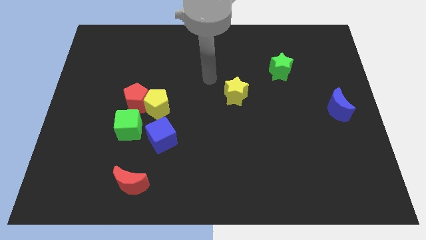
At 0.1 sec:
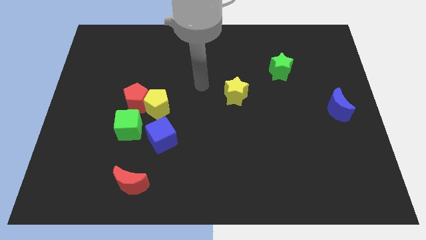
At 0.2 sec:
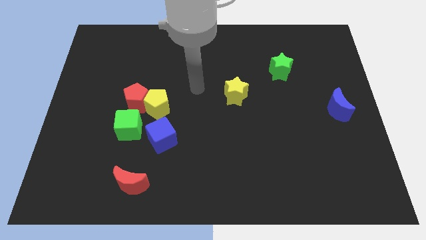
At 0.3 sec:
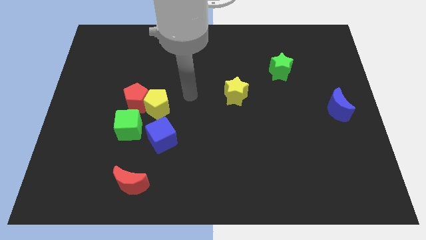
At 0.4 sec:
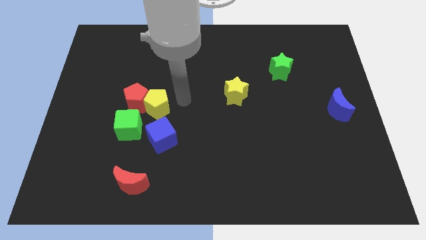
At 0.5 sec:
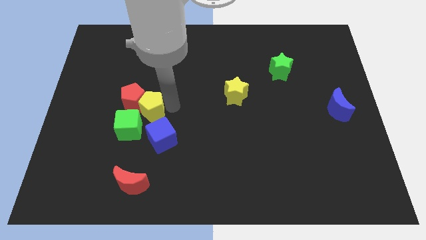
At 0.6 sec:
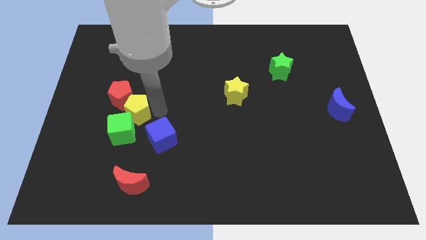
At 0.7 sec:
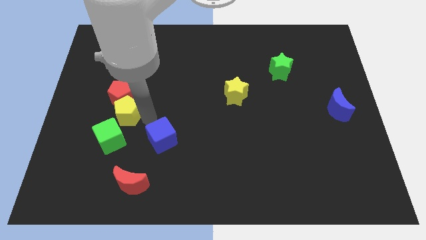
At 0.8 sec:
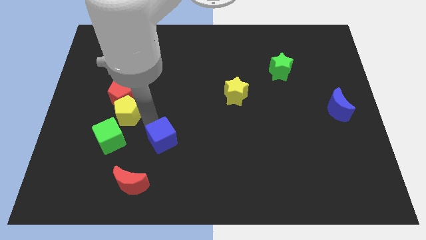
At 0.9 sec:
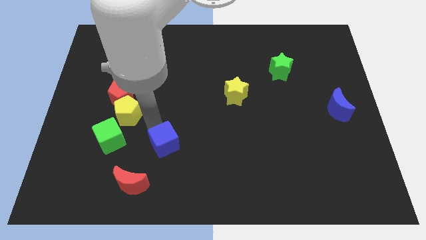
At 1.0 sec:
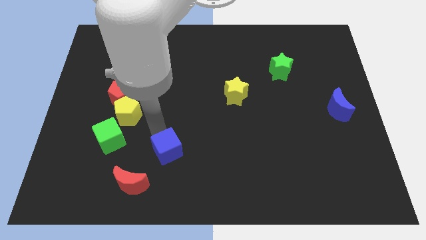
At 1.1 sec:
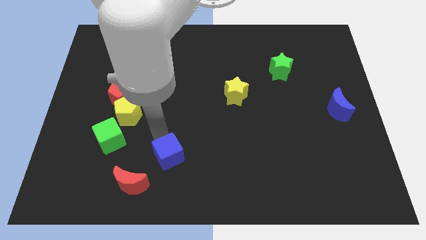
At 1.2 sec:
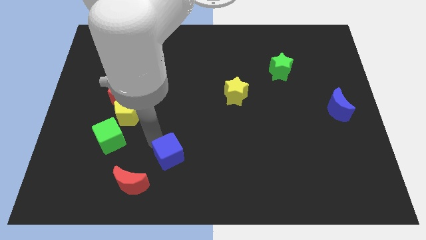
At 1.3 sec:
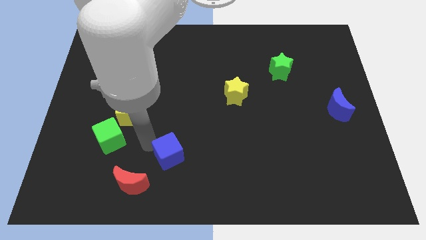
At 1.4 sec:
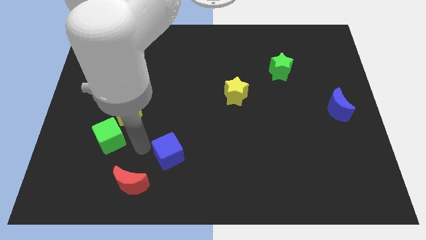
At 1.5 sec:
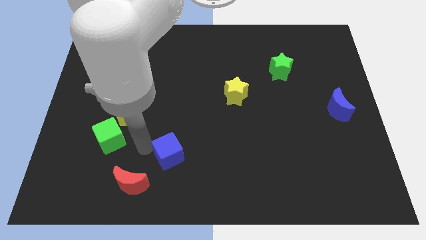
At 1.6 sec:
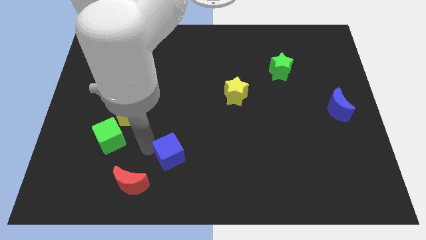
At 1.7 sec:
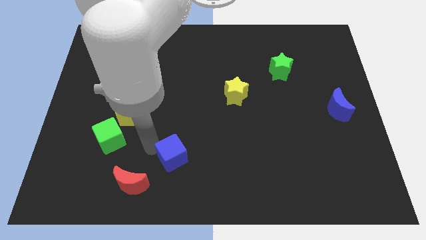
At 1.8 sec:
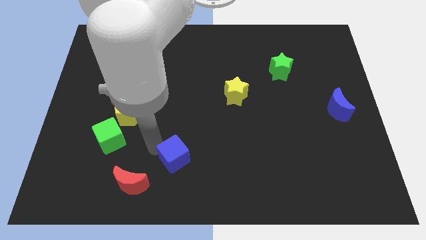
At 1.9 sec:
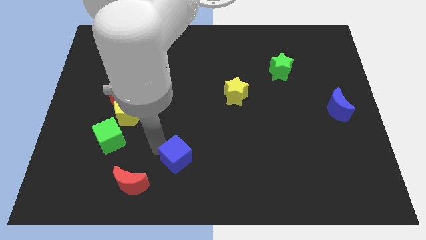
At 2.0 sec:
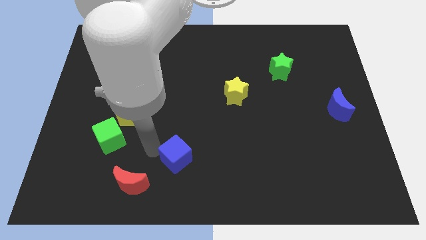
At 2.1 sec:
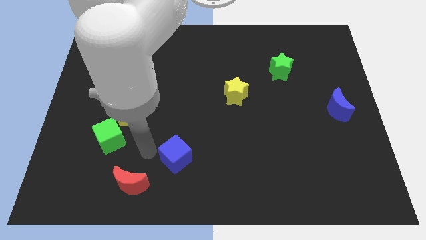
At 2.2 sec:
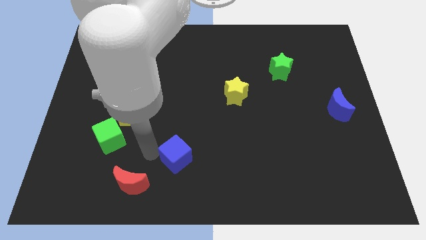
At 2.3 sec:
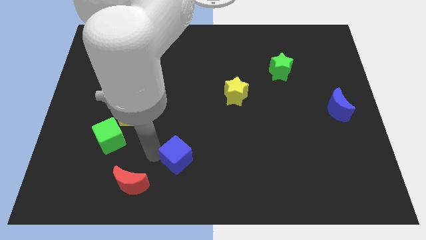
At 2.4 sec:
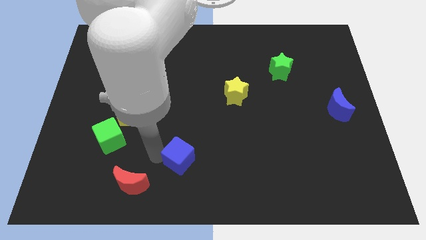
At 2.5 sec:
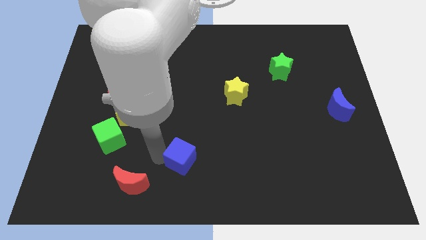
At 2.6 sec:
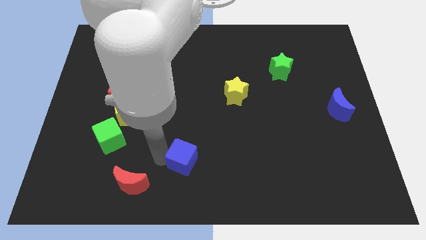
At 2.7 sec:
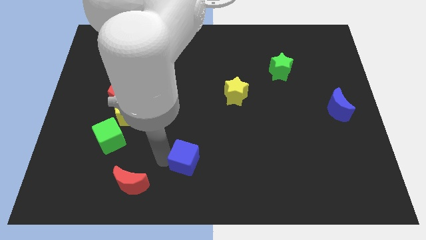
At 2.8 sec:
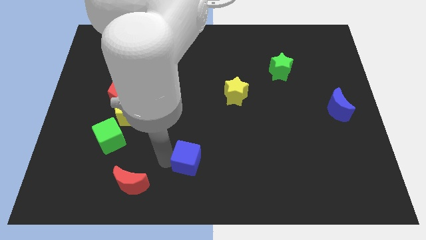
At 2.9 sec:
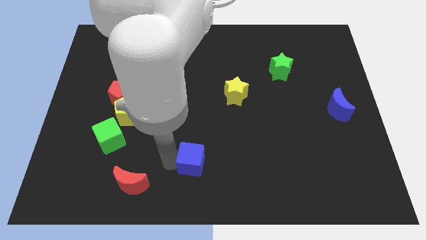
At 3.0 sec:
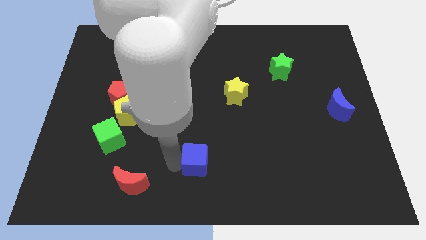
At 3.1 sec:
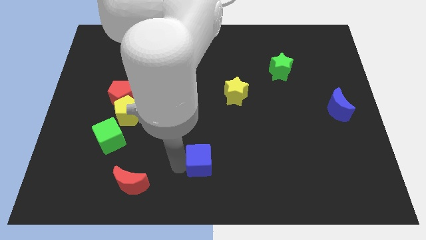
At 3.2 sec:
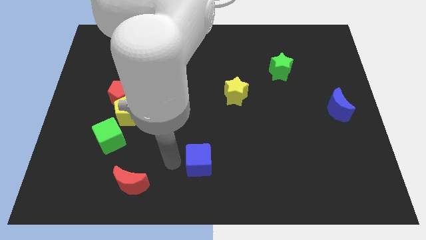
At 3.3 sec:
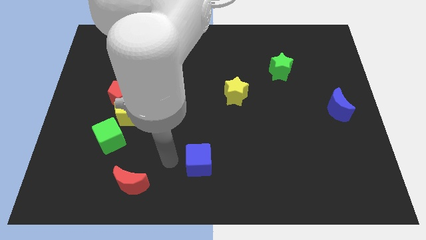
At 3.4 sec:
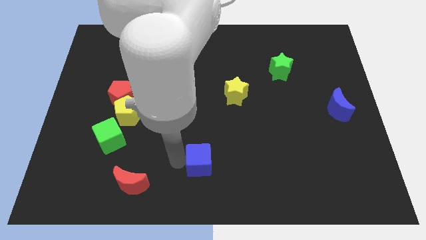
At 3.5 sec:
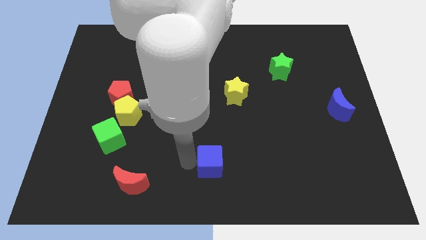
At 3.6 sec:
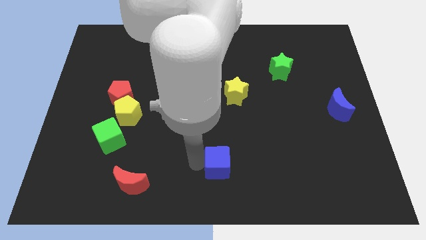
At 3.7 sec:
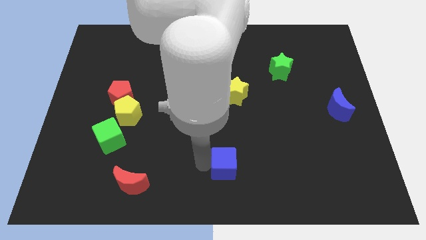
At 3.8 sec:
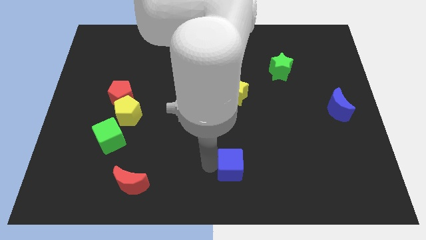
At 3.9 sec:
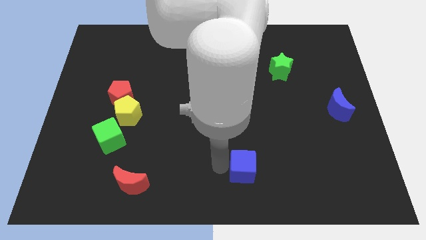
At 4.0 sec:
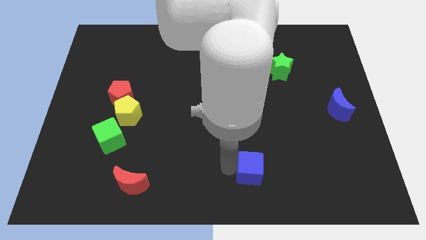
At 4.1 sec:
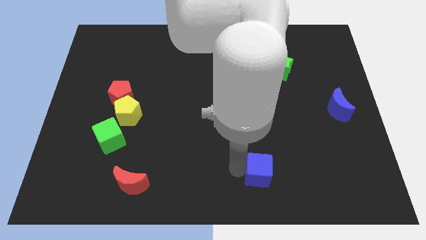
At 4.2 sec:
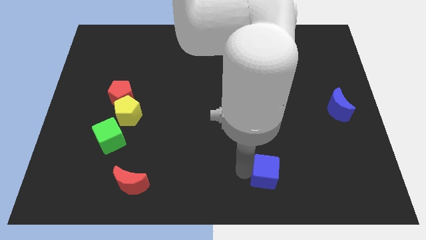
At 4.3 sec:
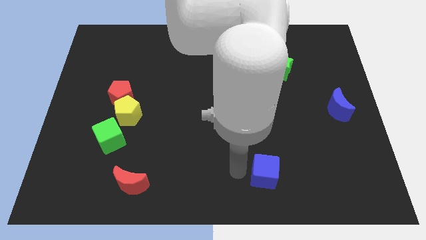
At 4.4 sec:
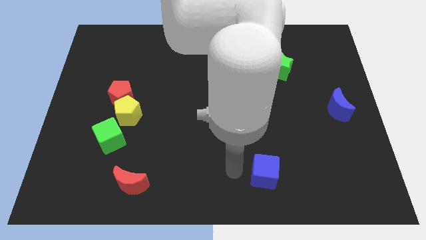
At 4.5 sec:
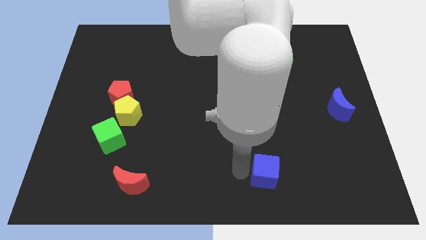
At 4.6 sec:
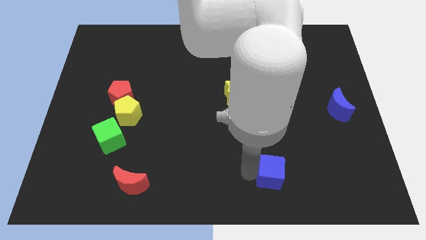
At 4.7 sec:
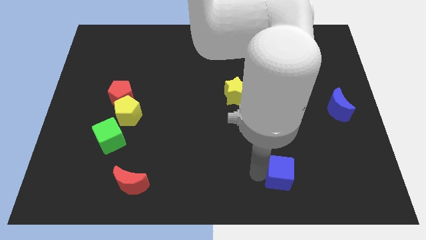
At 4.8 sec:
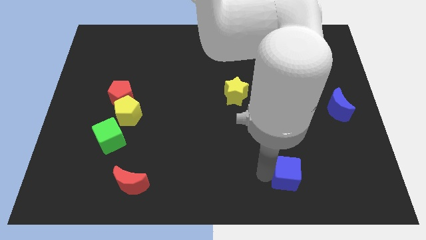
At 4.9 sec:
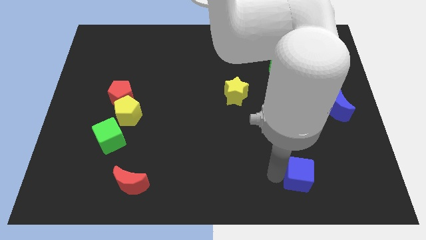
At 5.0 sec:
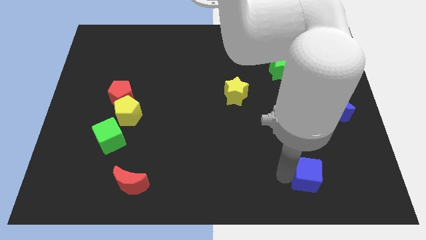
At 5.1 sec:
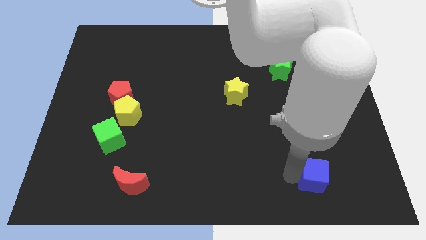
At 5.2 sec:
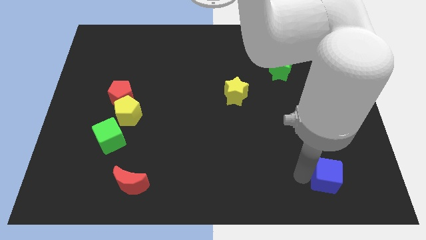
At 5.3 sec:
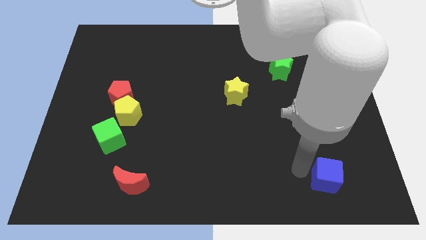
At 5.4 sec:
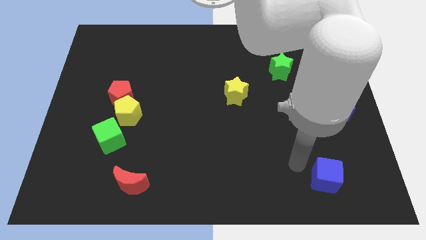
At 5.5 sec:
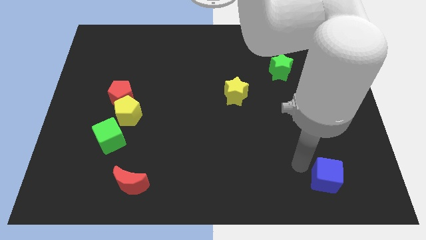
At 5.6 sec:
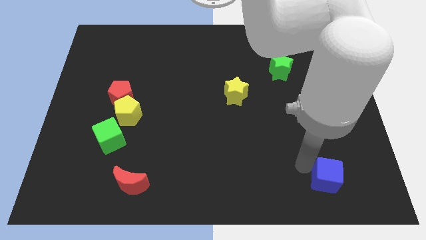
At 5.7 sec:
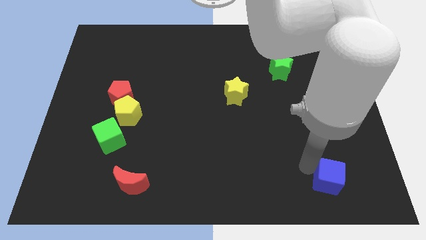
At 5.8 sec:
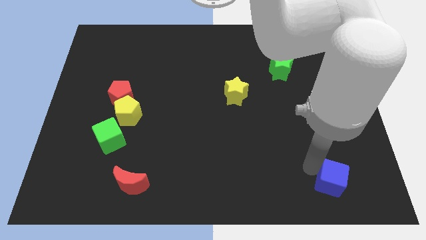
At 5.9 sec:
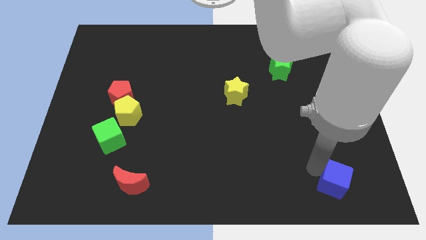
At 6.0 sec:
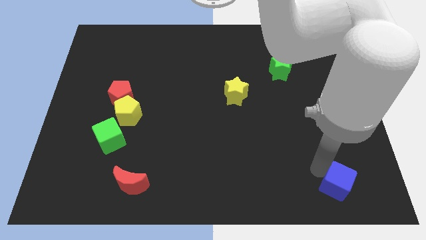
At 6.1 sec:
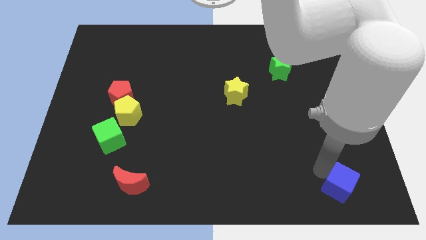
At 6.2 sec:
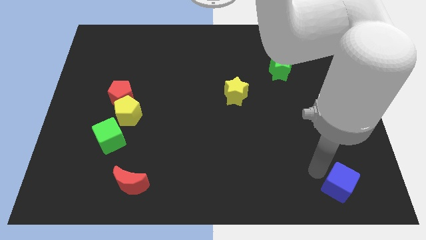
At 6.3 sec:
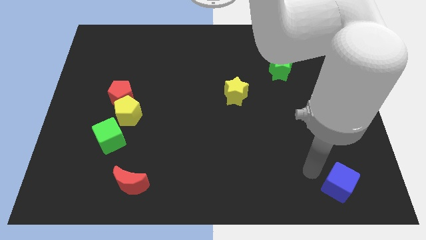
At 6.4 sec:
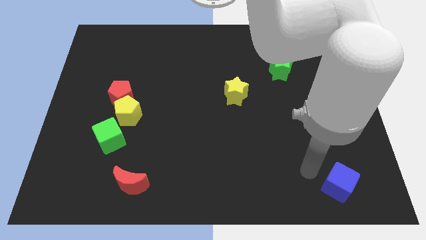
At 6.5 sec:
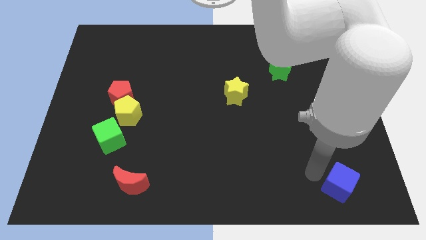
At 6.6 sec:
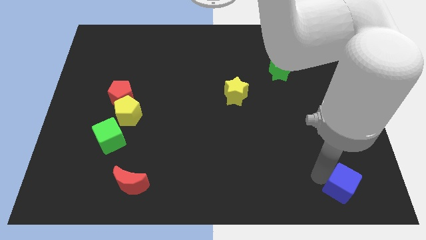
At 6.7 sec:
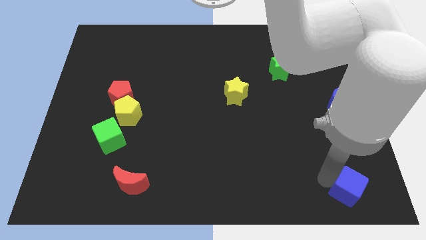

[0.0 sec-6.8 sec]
push the blue cube to the bottom right of the board
